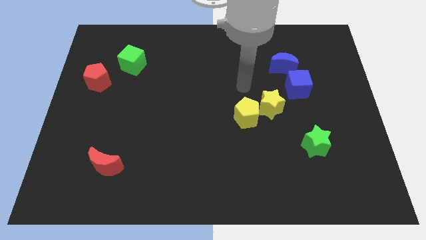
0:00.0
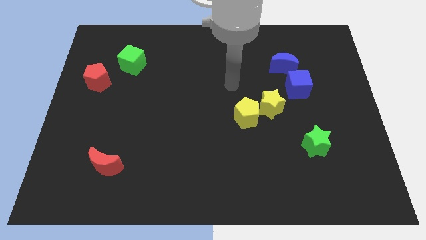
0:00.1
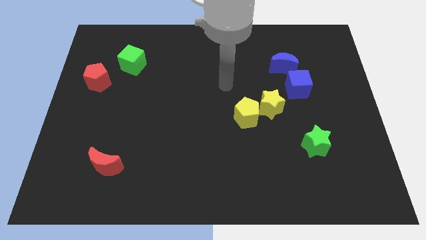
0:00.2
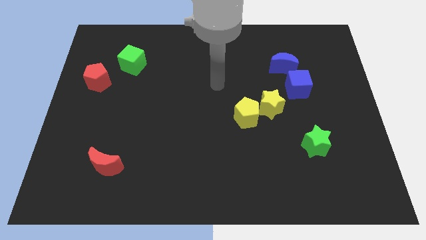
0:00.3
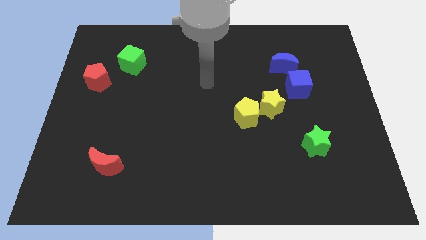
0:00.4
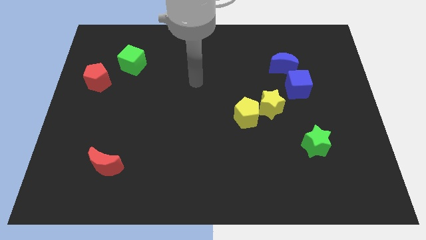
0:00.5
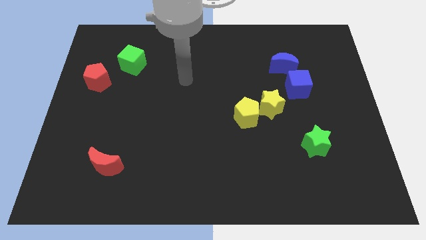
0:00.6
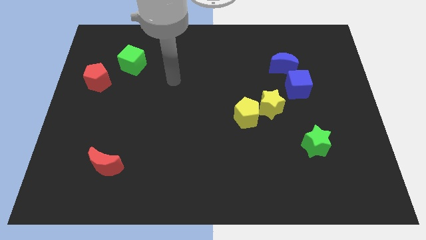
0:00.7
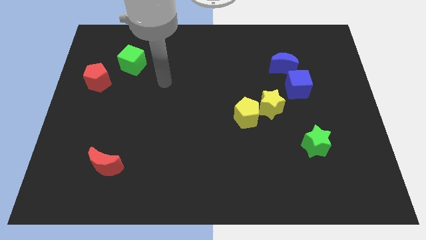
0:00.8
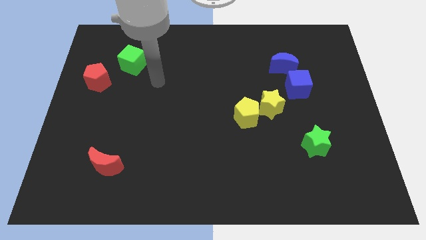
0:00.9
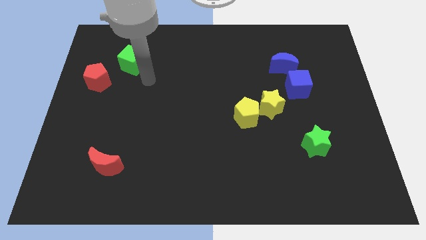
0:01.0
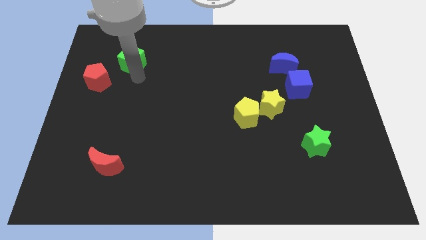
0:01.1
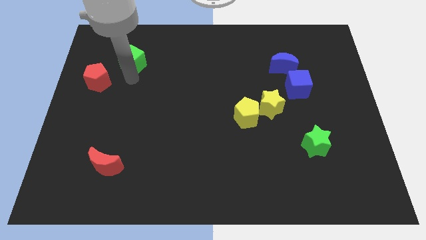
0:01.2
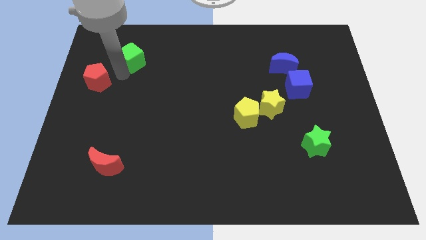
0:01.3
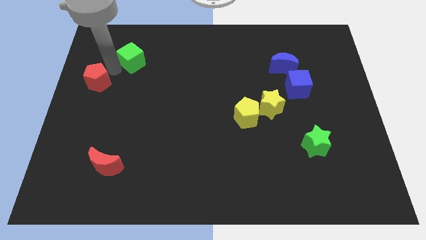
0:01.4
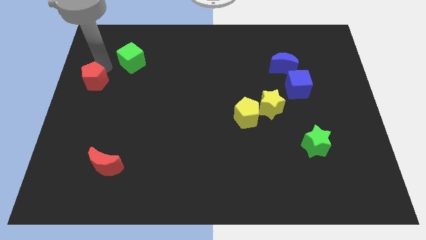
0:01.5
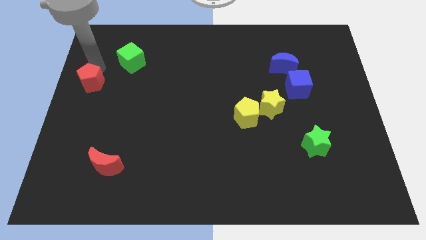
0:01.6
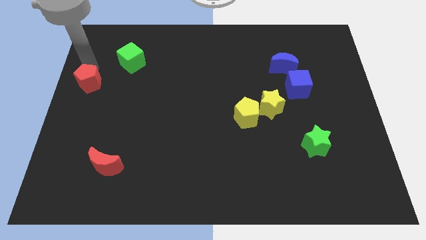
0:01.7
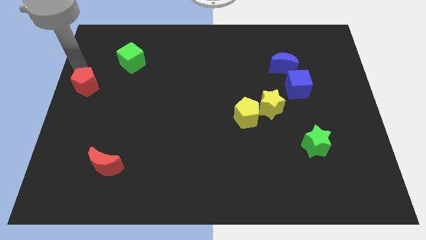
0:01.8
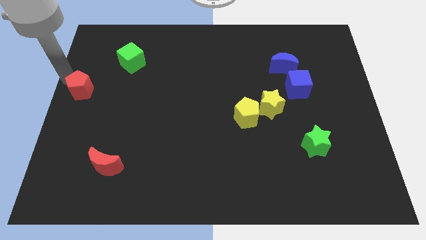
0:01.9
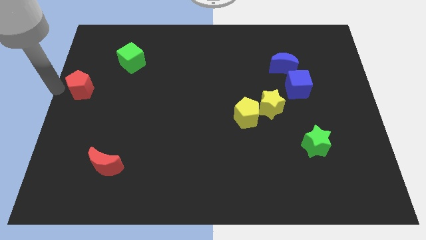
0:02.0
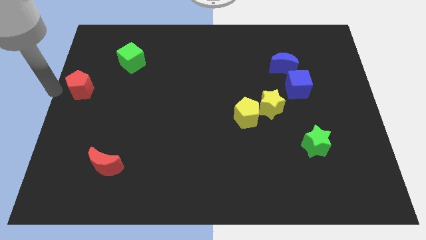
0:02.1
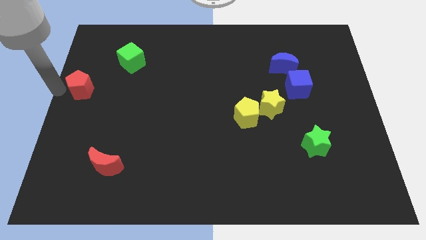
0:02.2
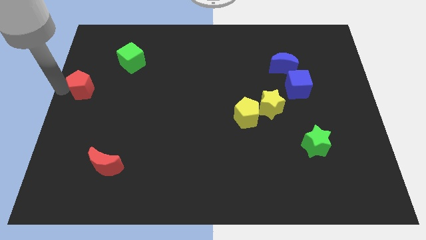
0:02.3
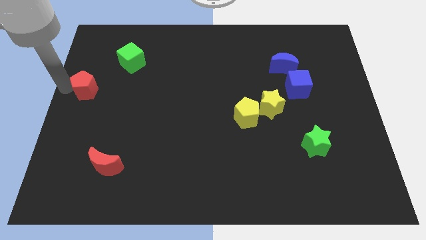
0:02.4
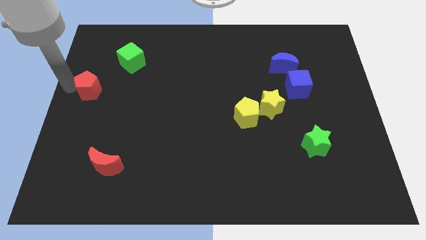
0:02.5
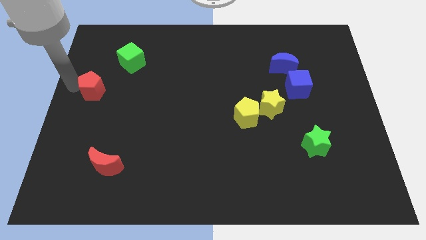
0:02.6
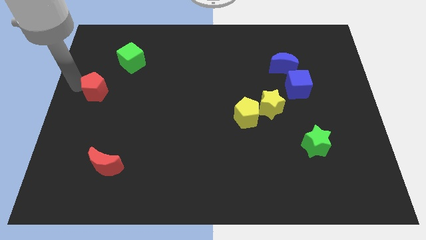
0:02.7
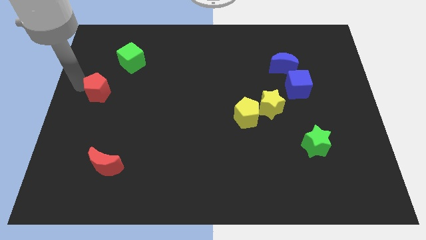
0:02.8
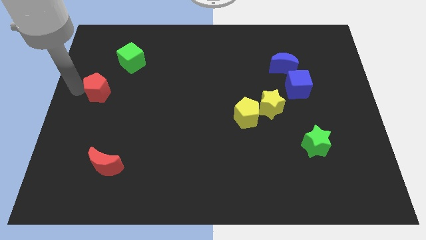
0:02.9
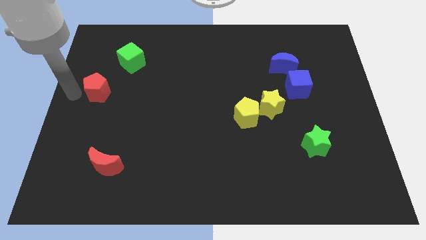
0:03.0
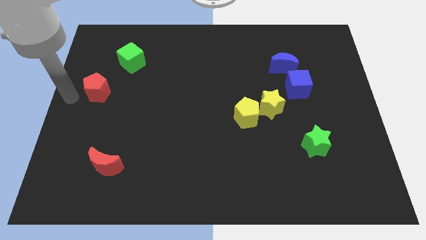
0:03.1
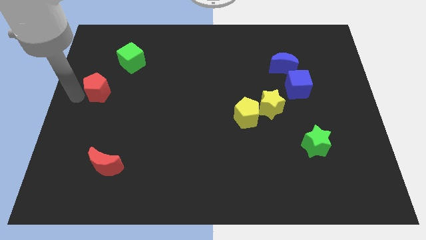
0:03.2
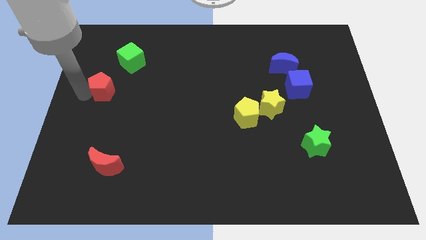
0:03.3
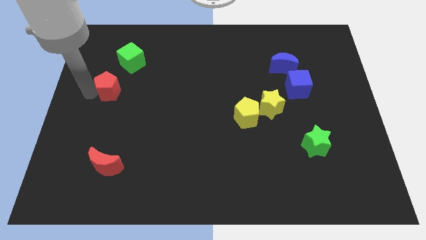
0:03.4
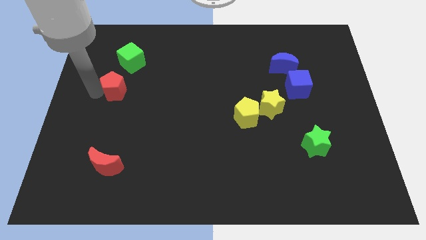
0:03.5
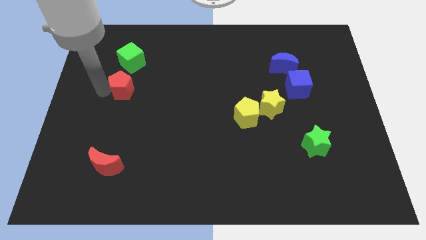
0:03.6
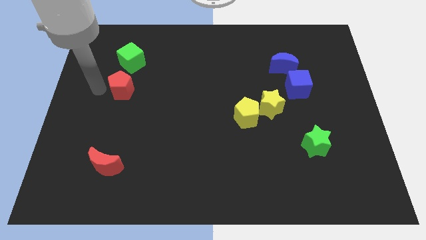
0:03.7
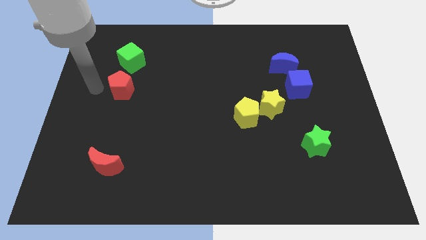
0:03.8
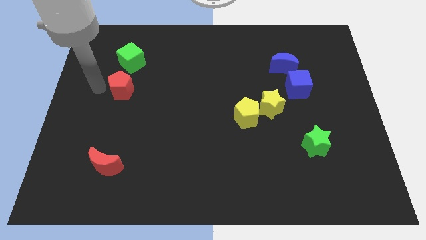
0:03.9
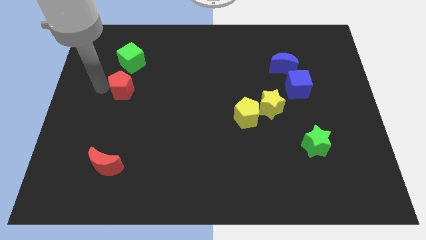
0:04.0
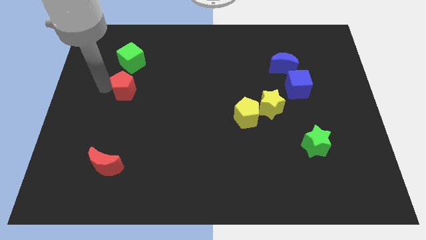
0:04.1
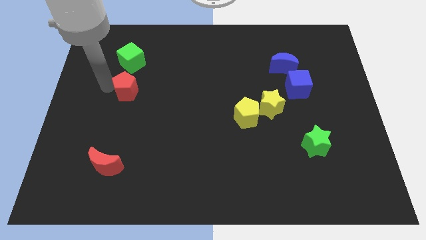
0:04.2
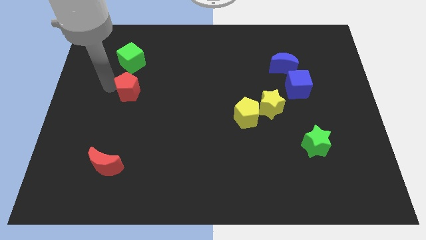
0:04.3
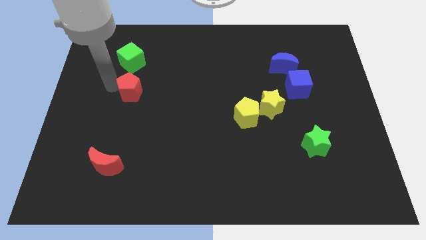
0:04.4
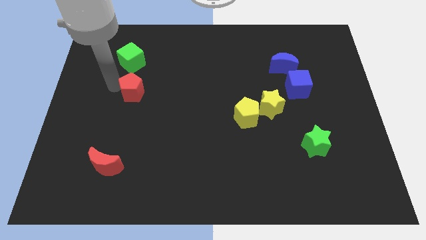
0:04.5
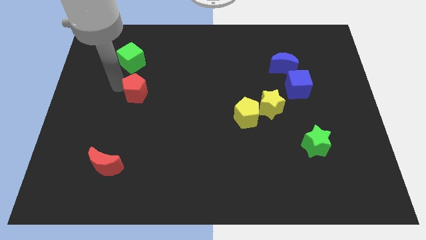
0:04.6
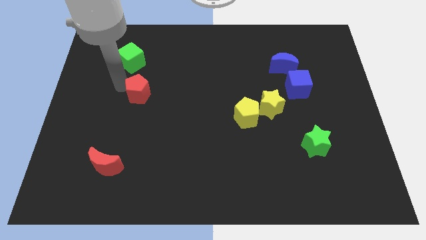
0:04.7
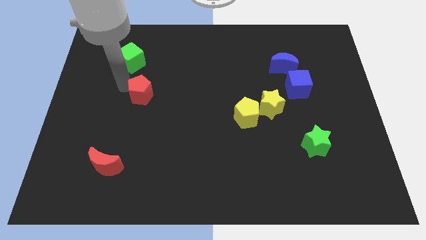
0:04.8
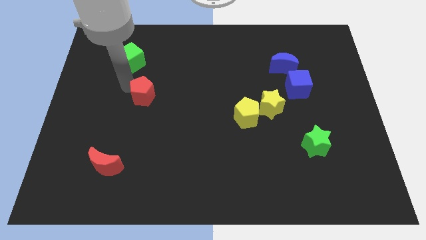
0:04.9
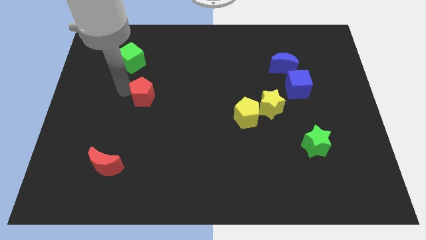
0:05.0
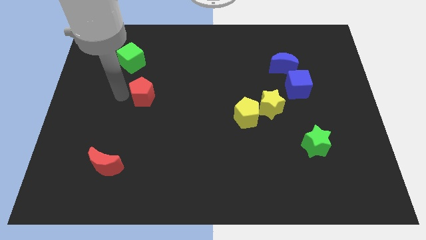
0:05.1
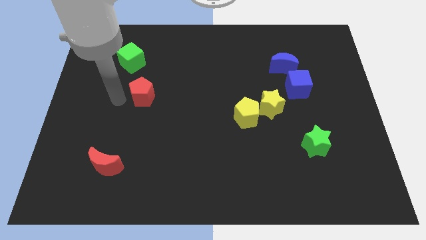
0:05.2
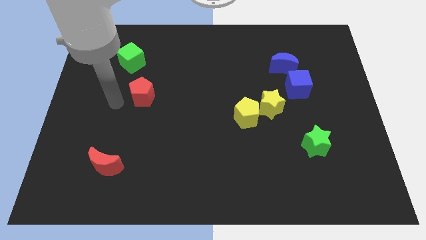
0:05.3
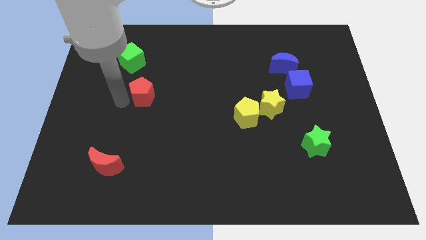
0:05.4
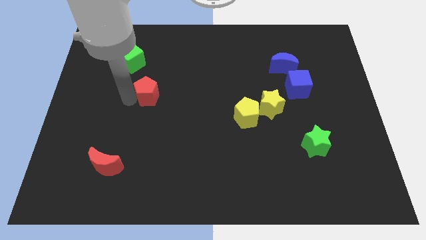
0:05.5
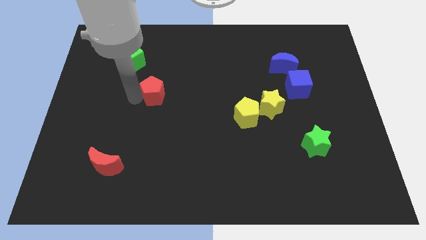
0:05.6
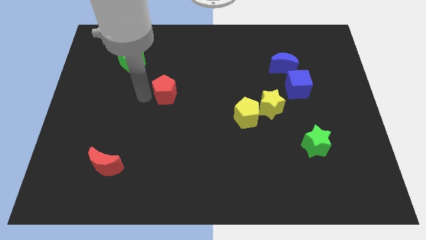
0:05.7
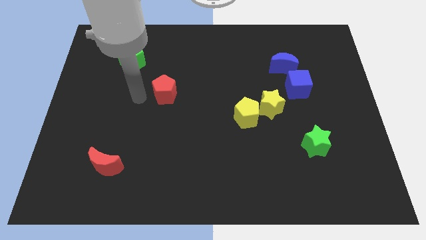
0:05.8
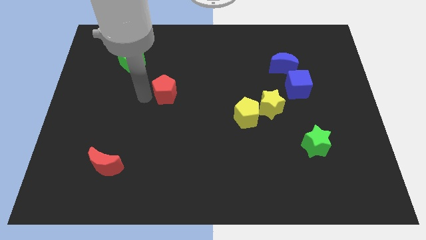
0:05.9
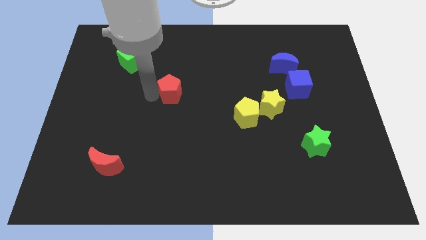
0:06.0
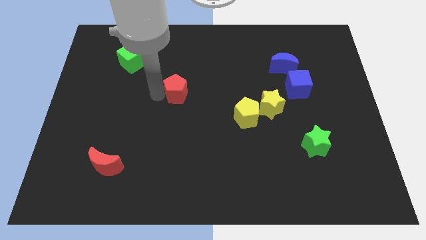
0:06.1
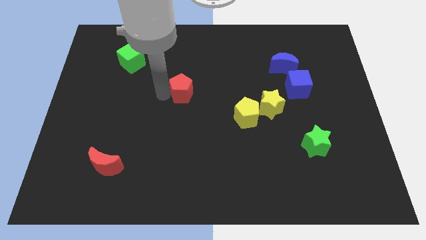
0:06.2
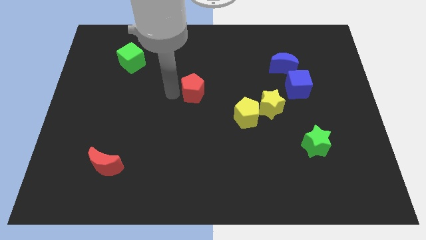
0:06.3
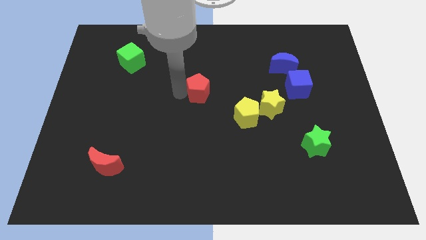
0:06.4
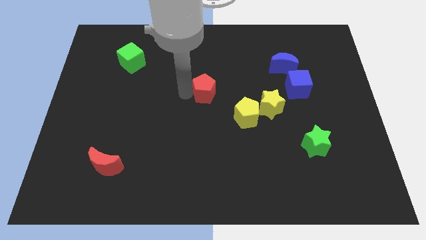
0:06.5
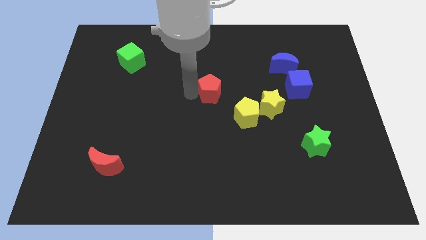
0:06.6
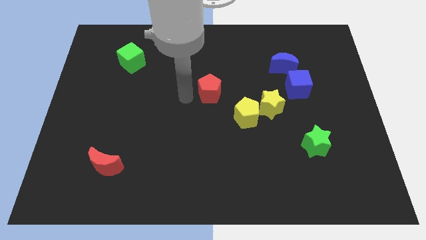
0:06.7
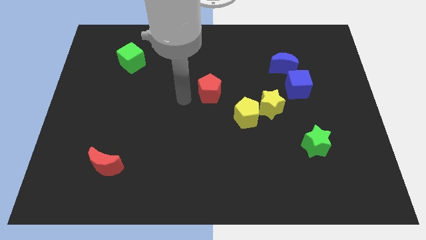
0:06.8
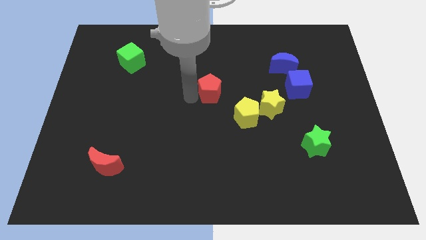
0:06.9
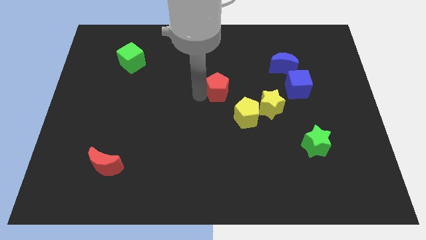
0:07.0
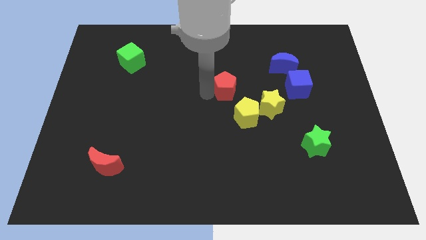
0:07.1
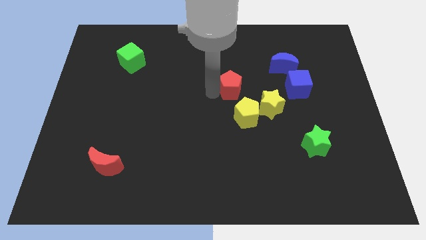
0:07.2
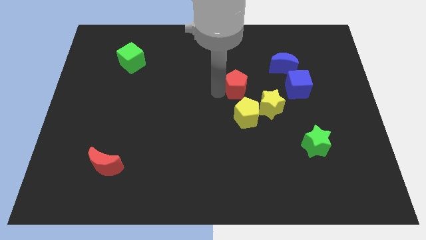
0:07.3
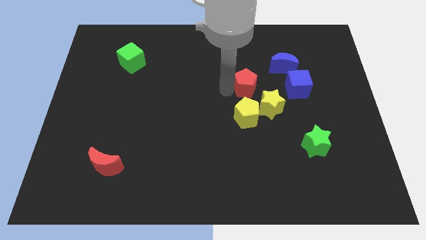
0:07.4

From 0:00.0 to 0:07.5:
put the red pentagon diagonally down and to the left of the blue moon
